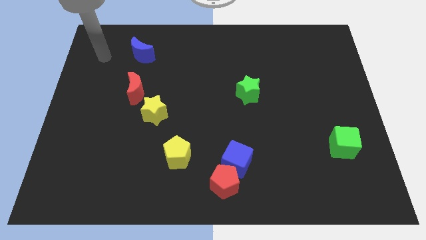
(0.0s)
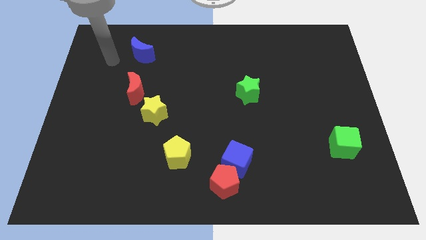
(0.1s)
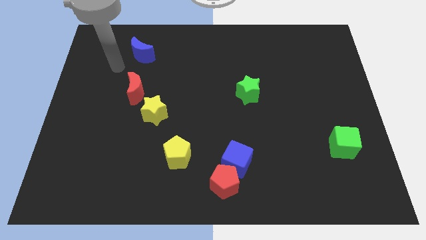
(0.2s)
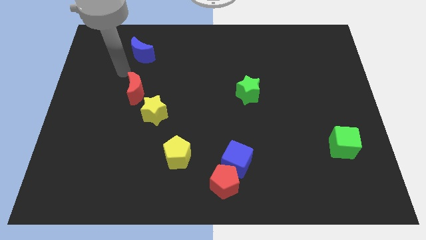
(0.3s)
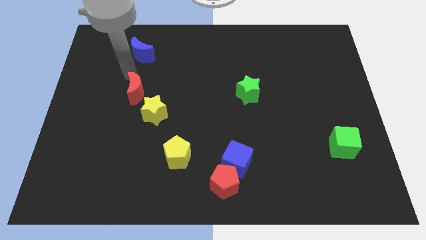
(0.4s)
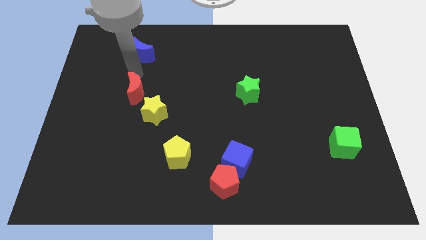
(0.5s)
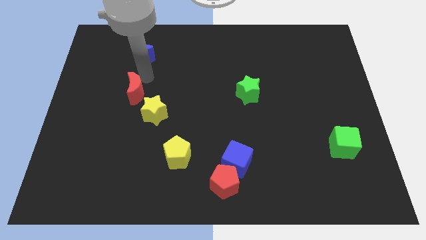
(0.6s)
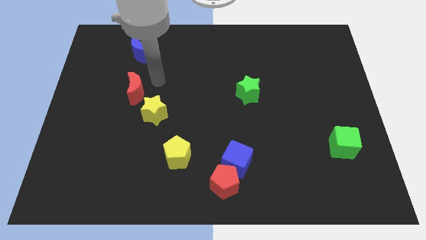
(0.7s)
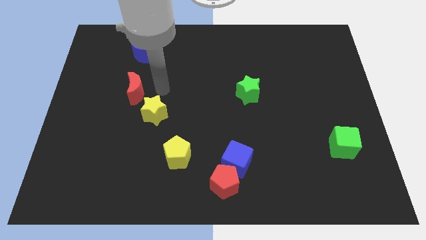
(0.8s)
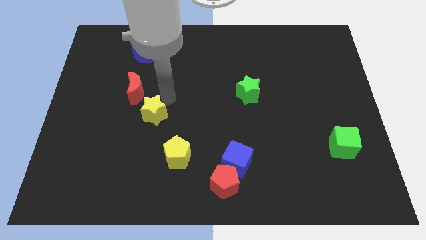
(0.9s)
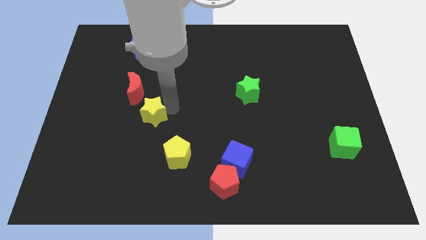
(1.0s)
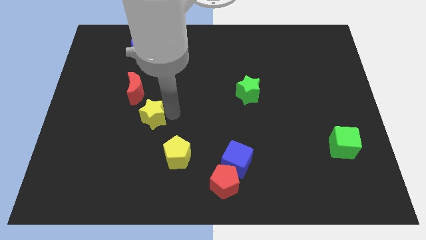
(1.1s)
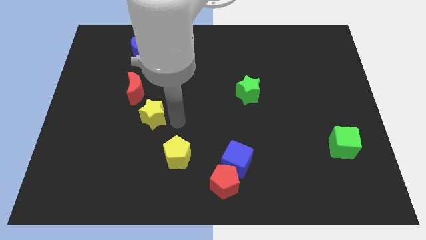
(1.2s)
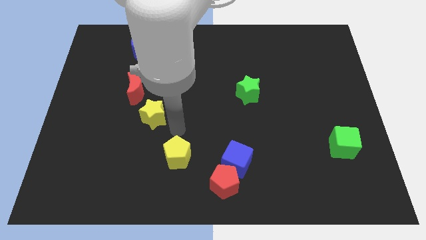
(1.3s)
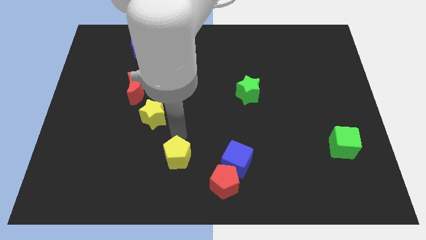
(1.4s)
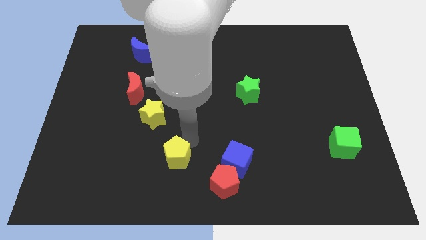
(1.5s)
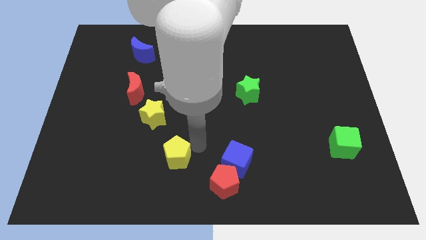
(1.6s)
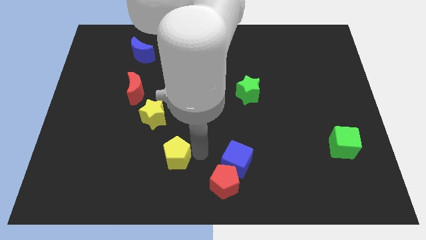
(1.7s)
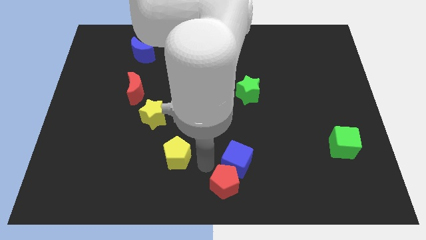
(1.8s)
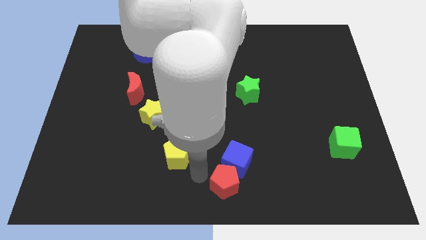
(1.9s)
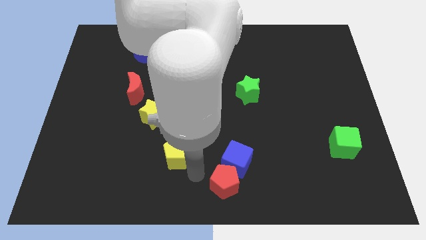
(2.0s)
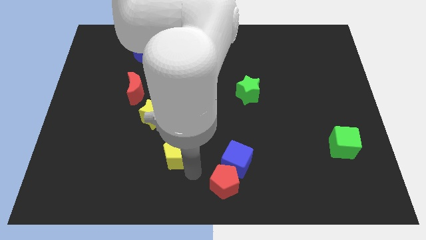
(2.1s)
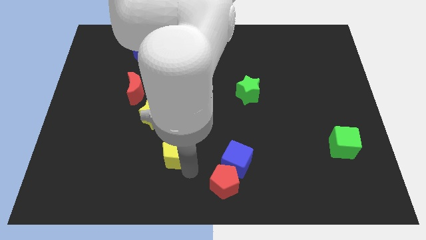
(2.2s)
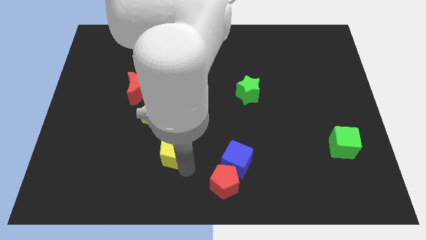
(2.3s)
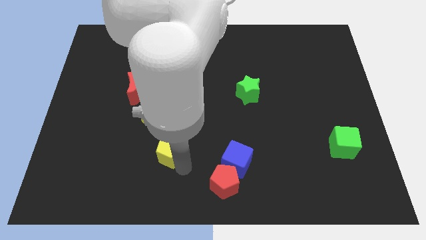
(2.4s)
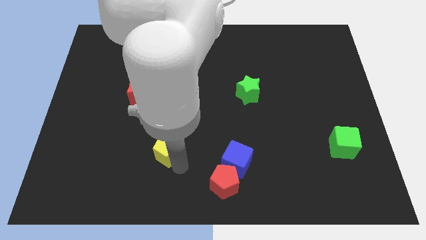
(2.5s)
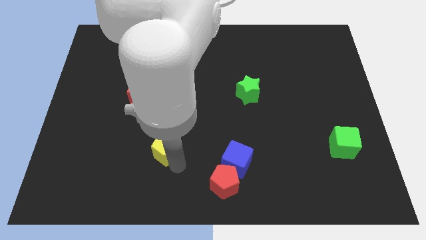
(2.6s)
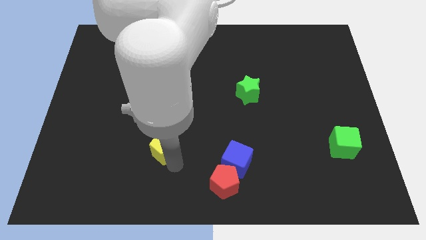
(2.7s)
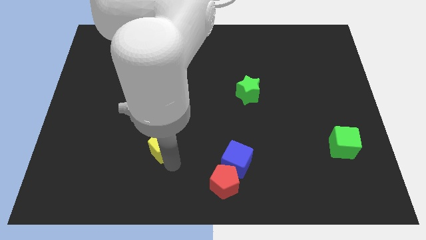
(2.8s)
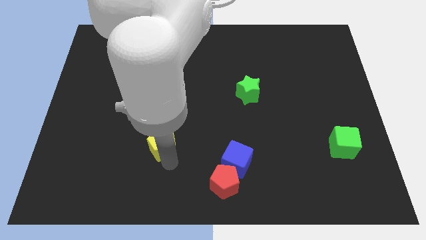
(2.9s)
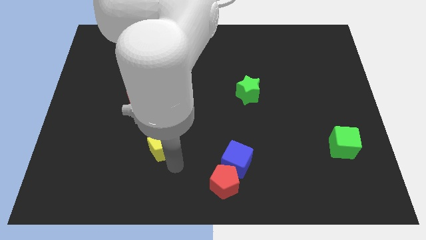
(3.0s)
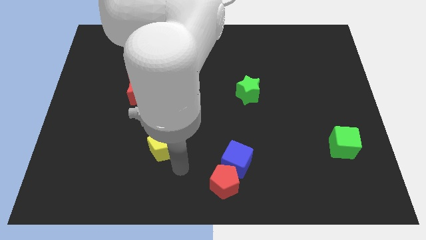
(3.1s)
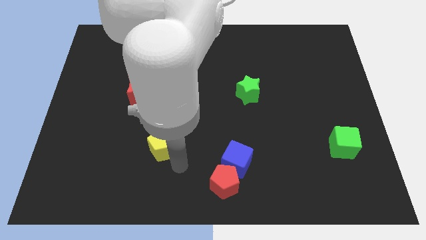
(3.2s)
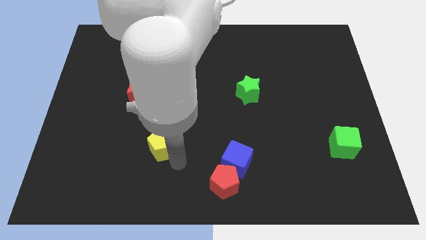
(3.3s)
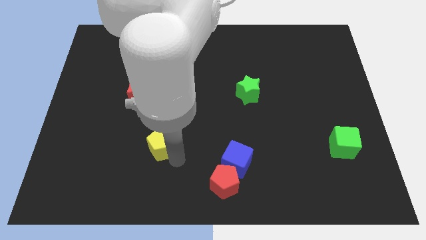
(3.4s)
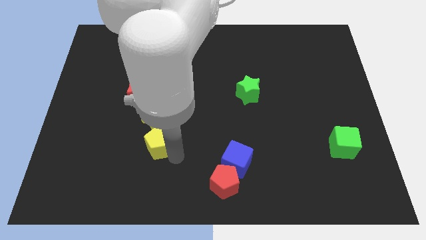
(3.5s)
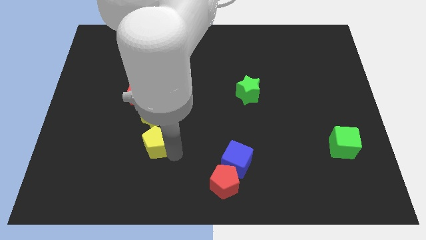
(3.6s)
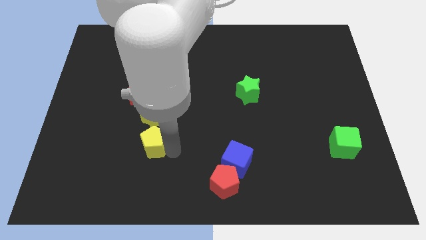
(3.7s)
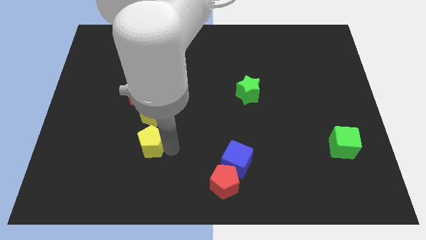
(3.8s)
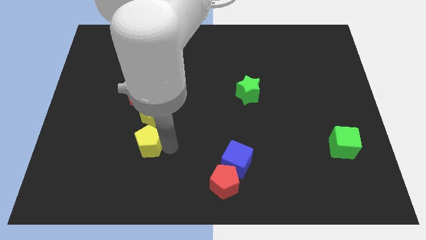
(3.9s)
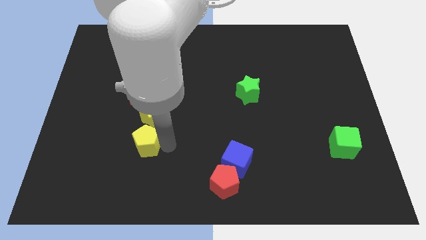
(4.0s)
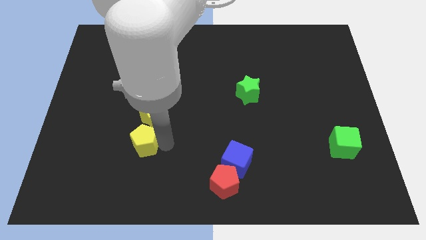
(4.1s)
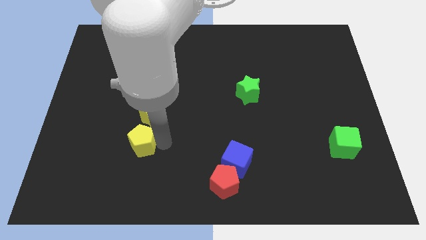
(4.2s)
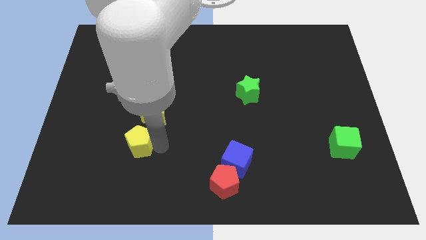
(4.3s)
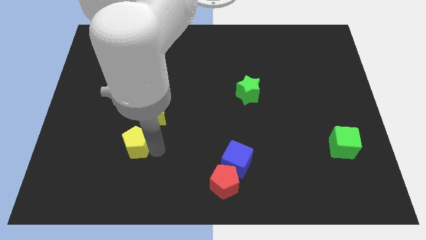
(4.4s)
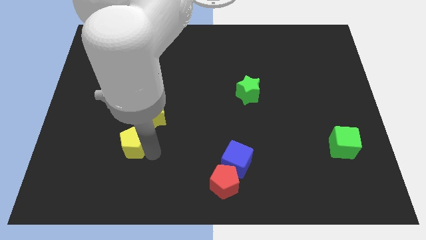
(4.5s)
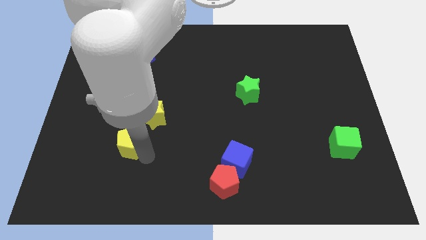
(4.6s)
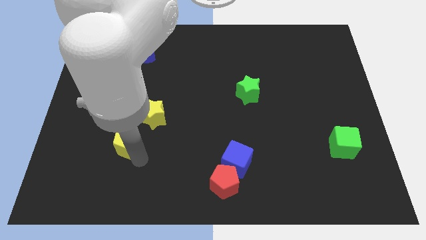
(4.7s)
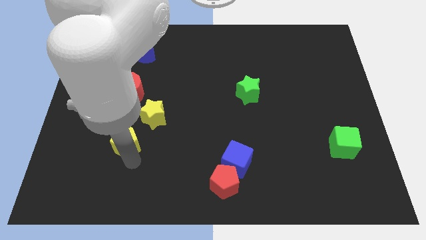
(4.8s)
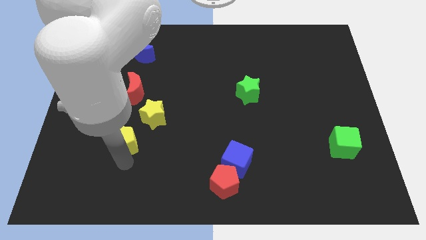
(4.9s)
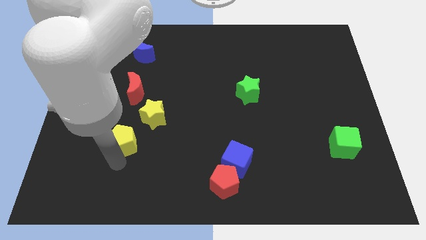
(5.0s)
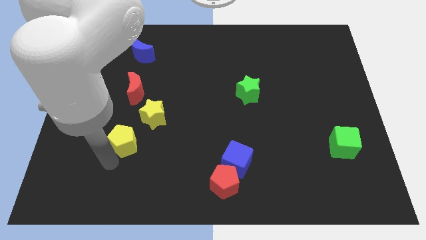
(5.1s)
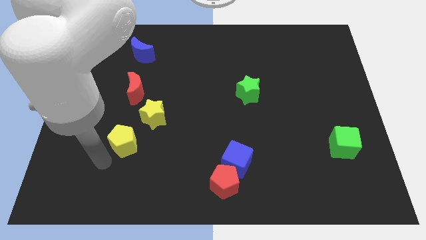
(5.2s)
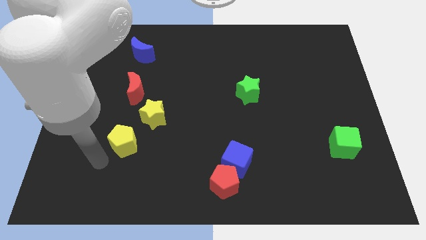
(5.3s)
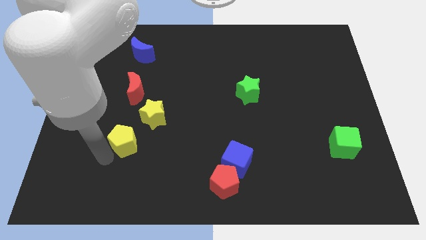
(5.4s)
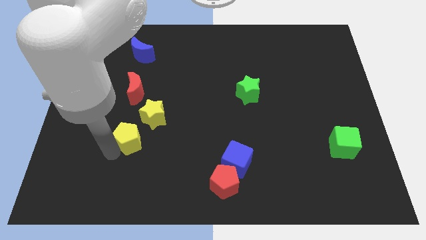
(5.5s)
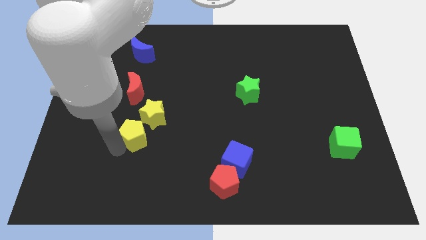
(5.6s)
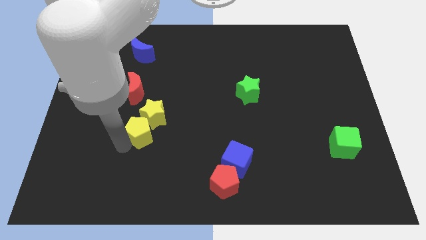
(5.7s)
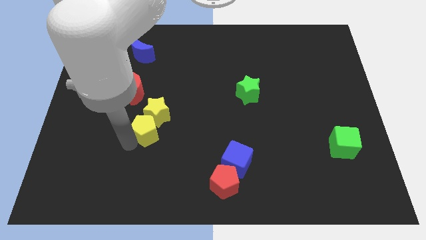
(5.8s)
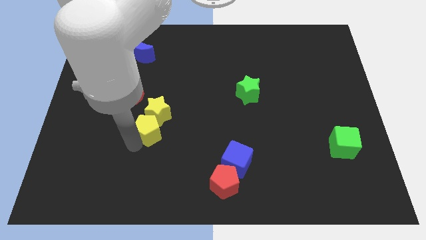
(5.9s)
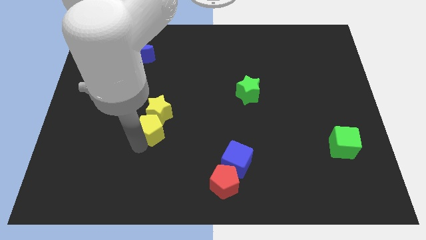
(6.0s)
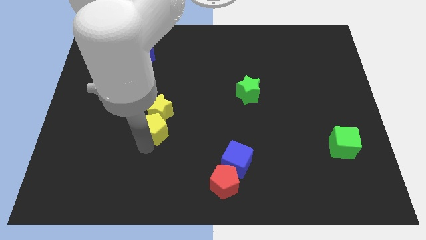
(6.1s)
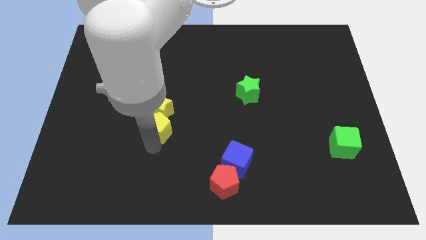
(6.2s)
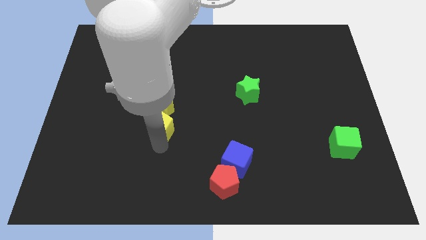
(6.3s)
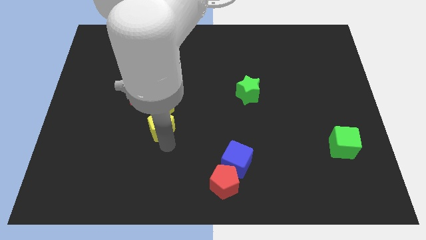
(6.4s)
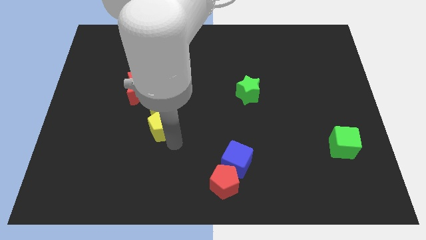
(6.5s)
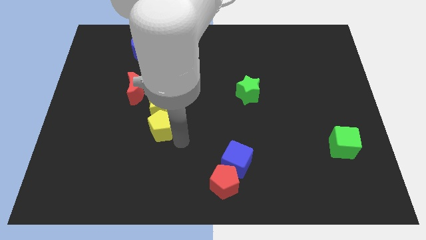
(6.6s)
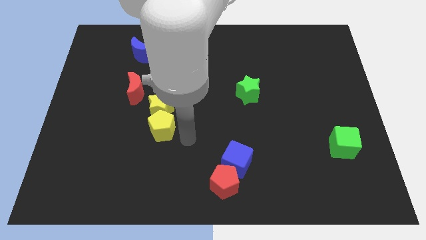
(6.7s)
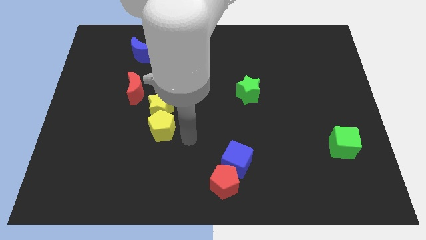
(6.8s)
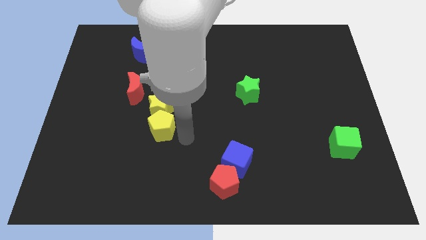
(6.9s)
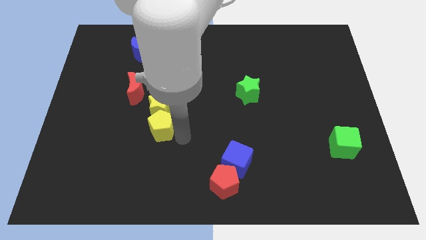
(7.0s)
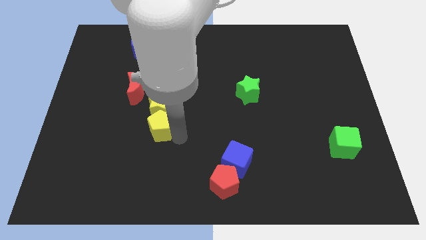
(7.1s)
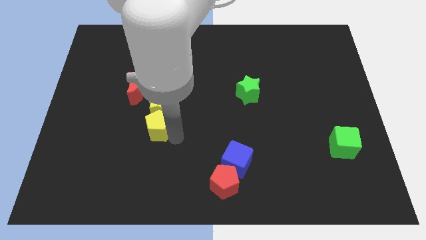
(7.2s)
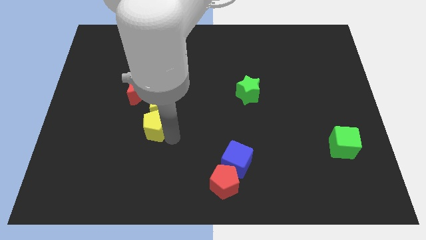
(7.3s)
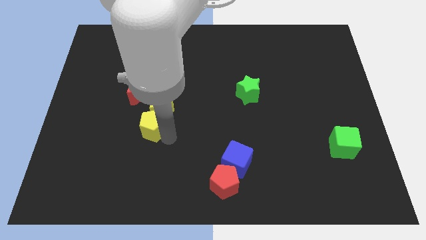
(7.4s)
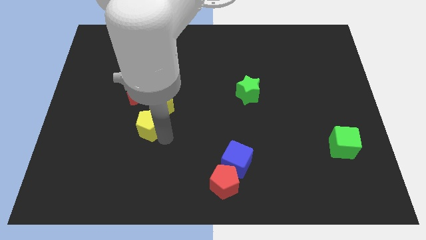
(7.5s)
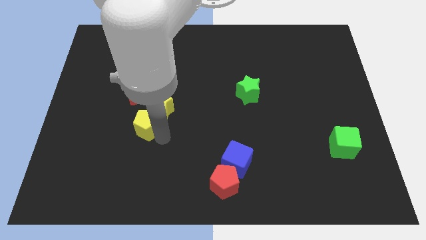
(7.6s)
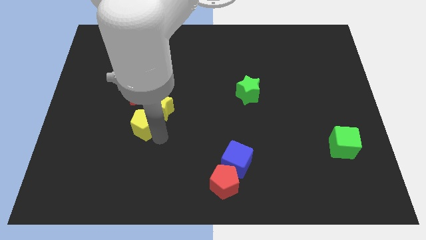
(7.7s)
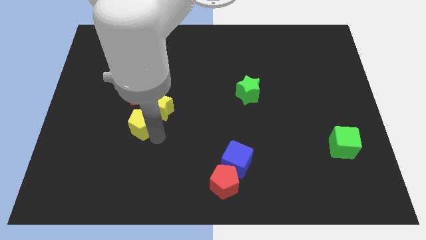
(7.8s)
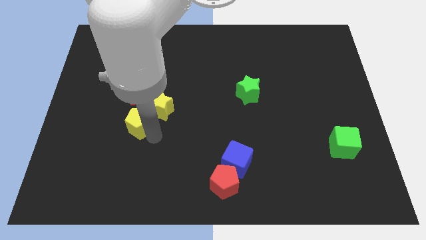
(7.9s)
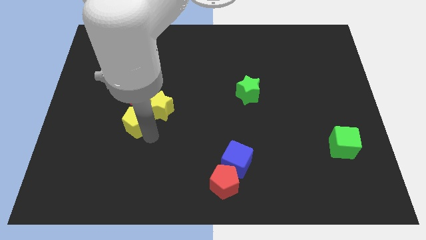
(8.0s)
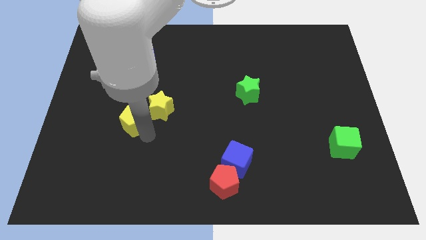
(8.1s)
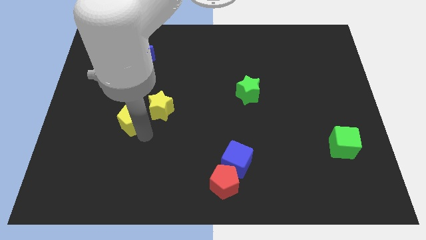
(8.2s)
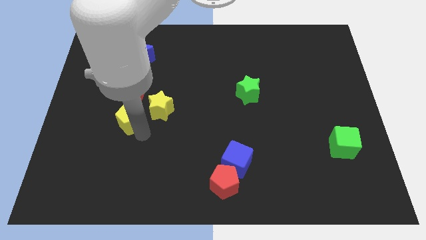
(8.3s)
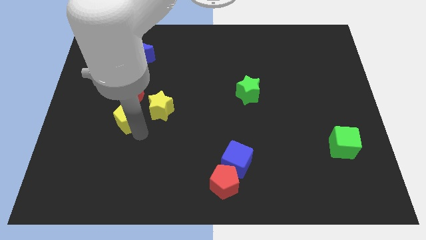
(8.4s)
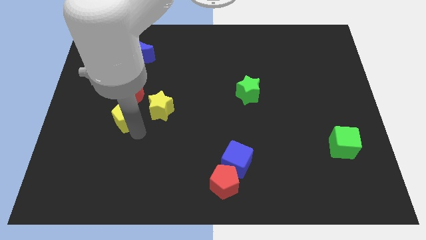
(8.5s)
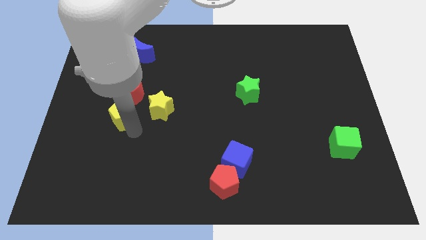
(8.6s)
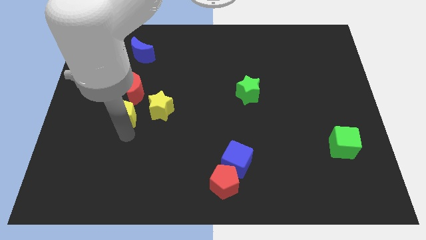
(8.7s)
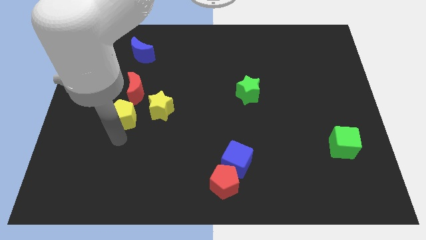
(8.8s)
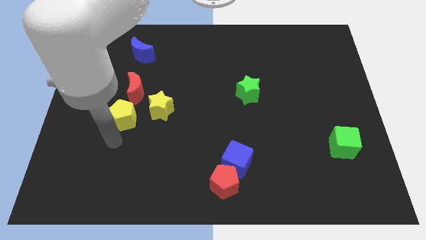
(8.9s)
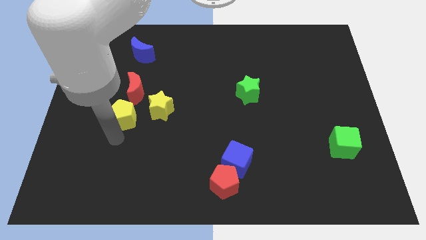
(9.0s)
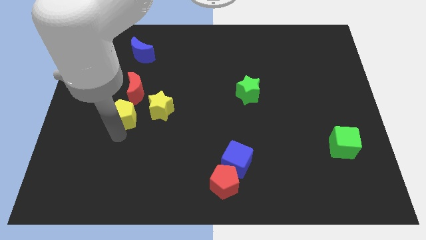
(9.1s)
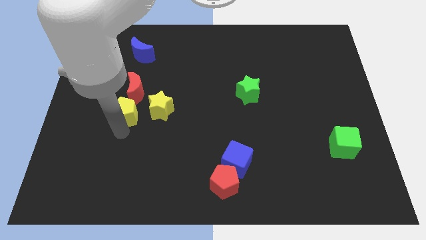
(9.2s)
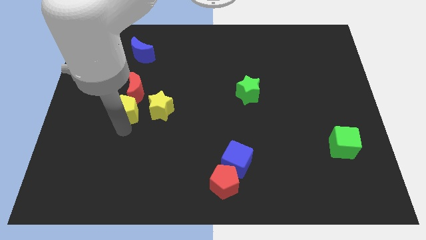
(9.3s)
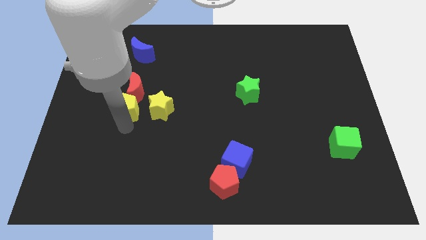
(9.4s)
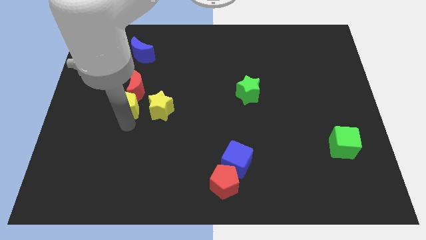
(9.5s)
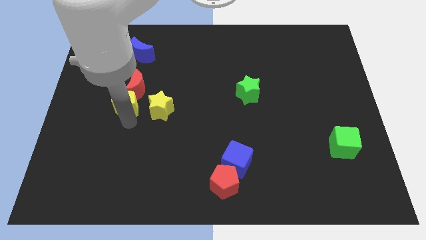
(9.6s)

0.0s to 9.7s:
slide the yellow pentagon towards the red moon
